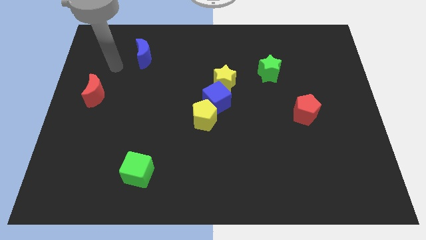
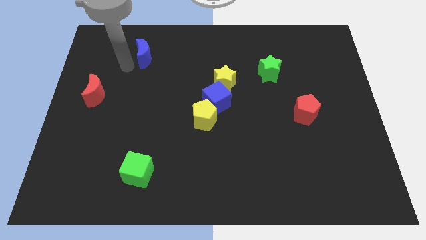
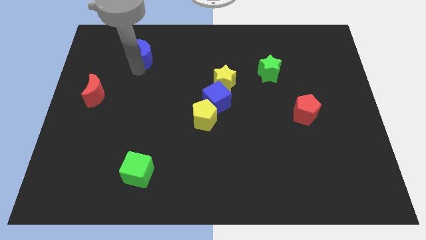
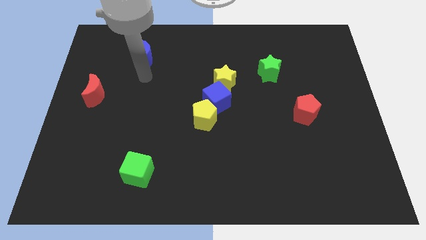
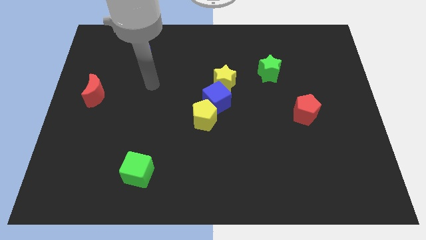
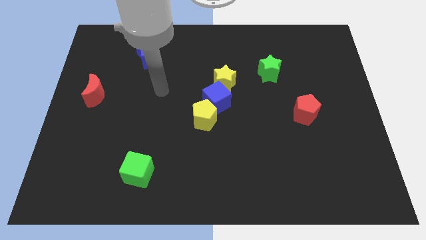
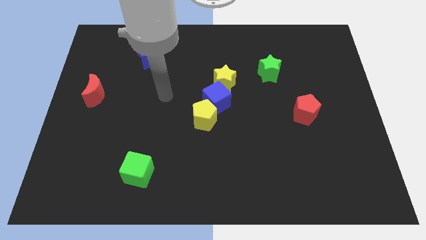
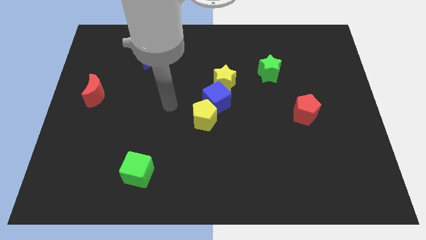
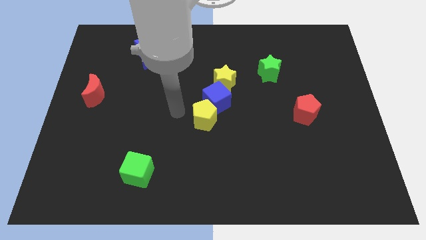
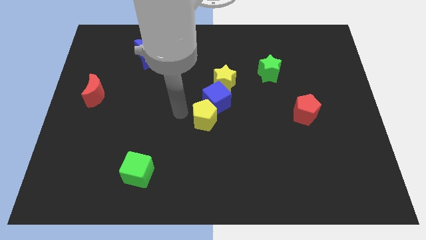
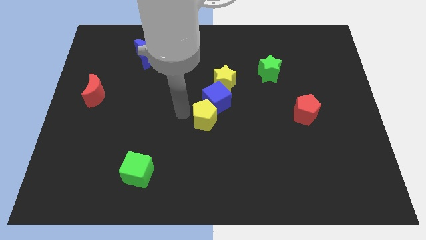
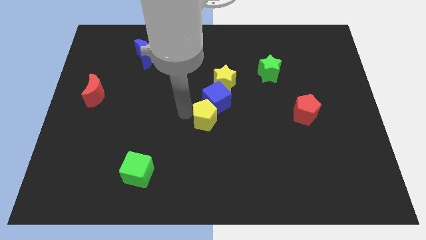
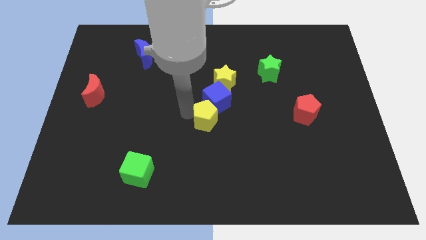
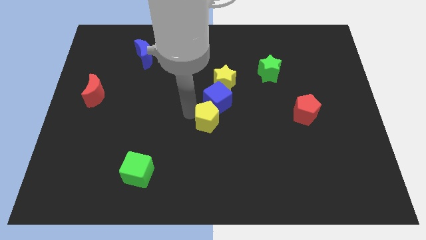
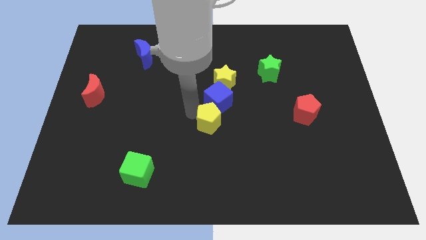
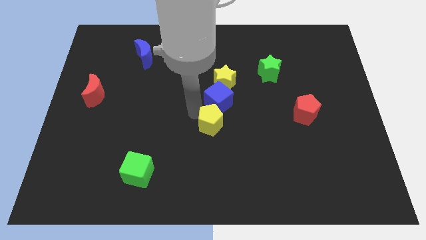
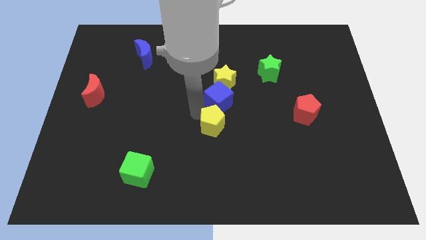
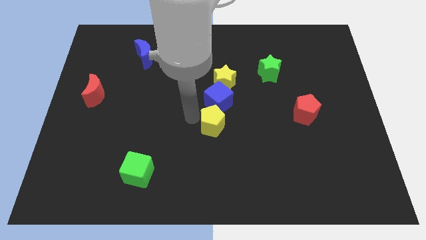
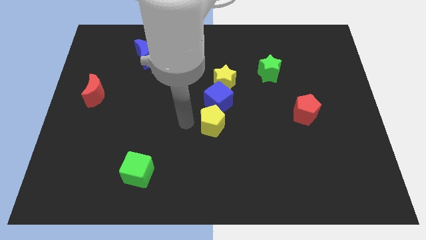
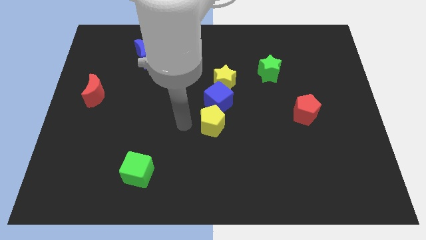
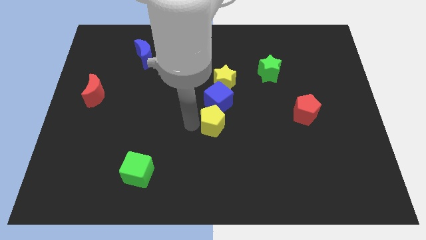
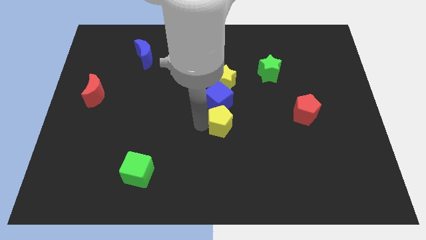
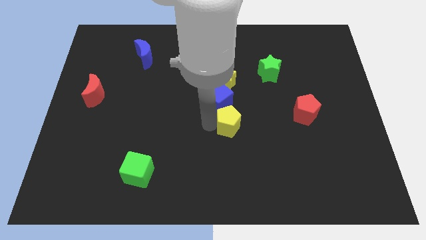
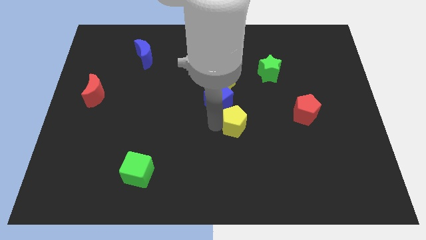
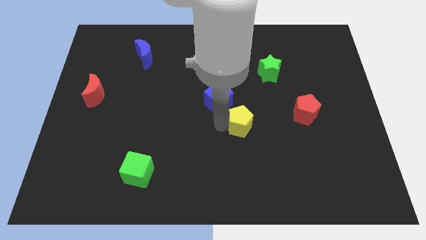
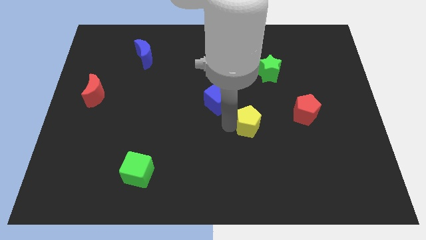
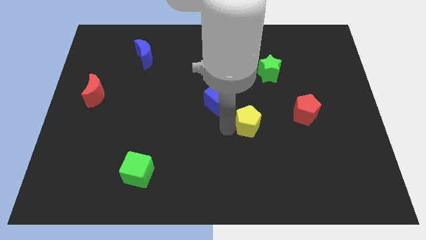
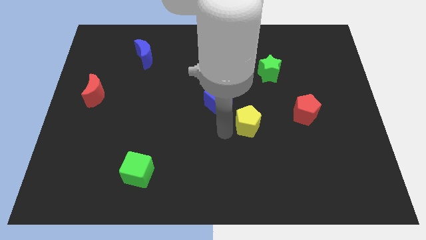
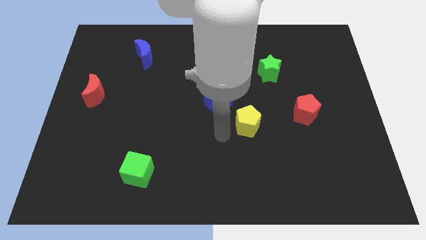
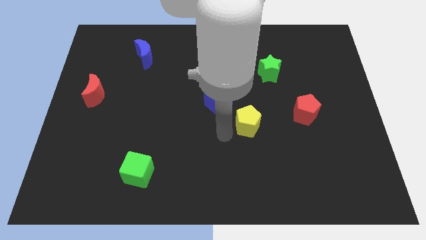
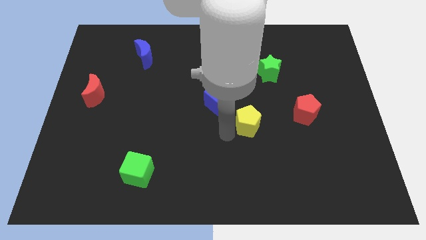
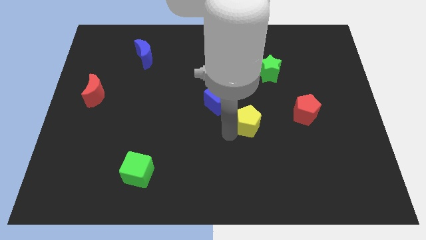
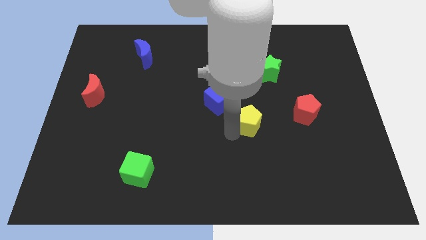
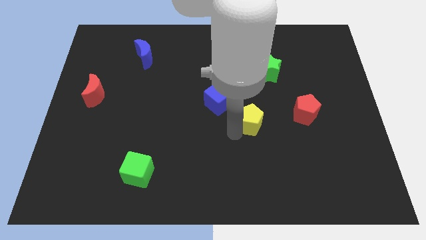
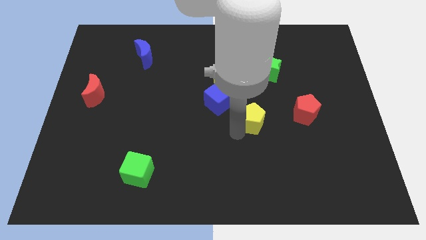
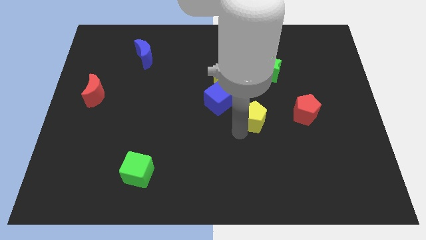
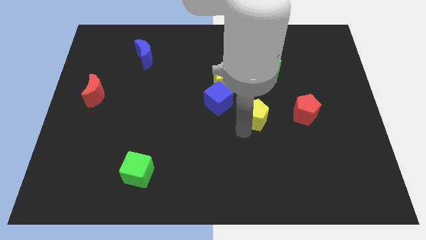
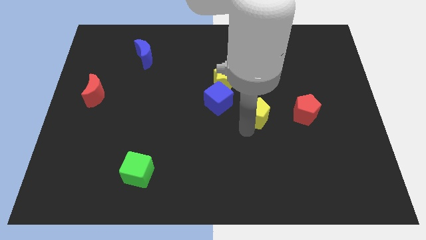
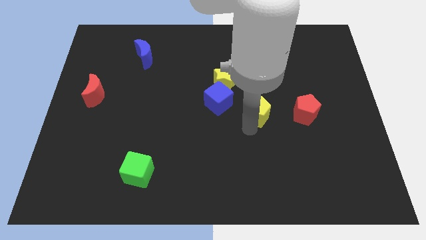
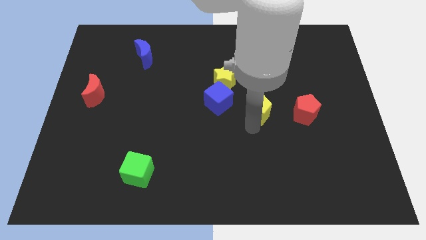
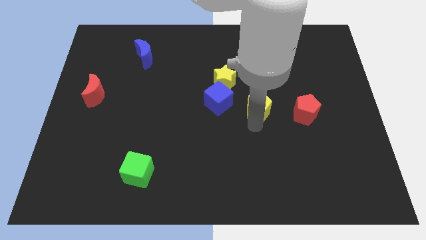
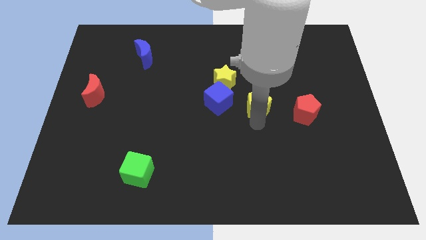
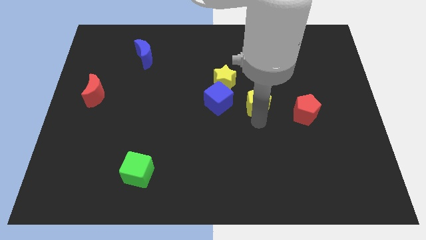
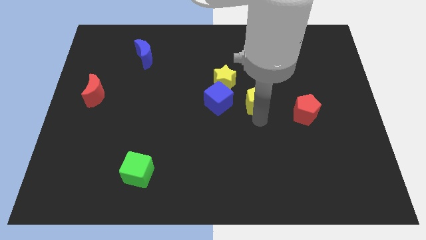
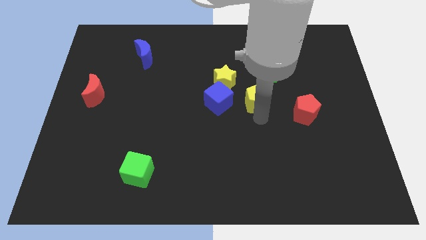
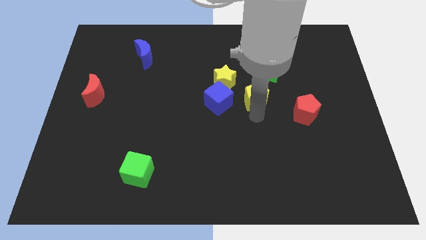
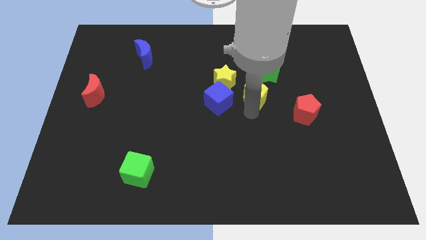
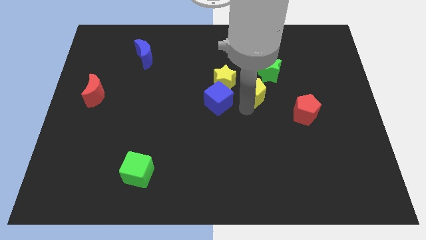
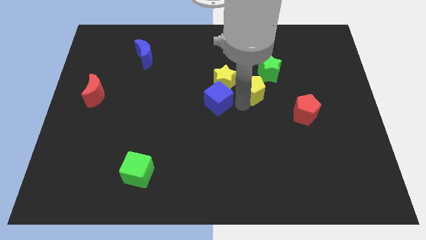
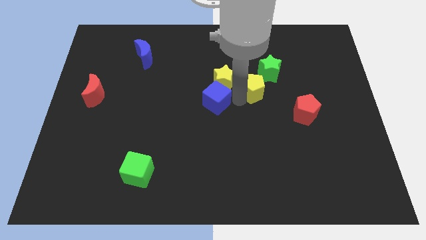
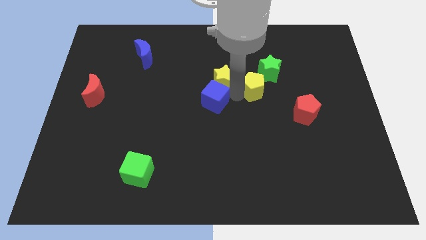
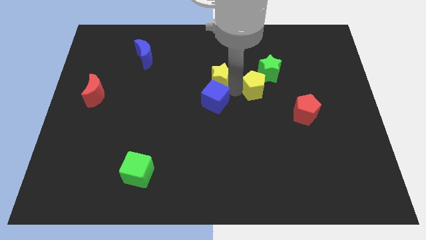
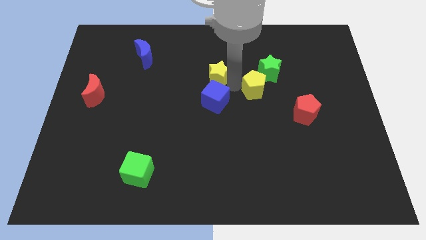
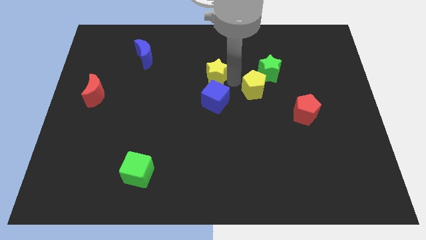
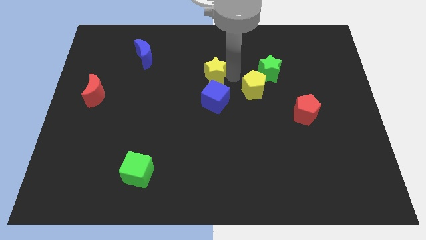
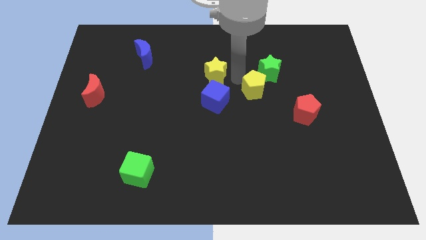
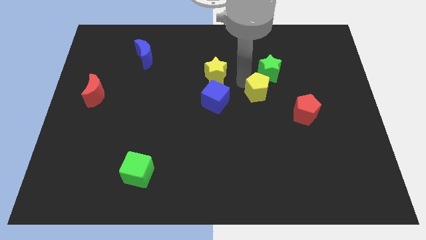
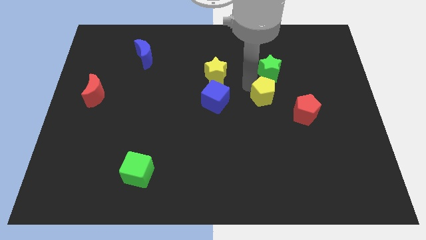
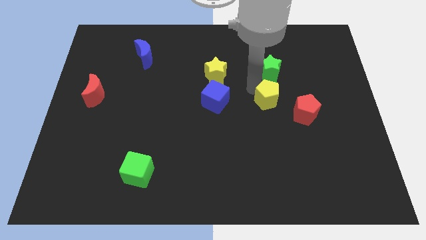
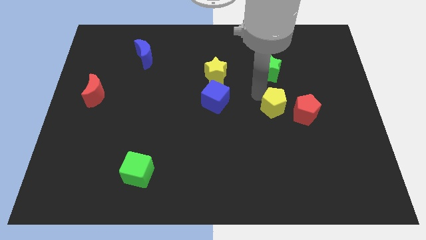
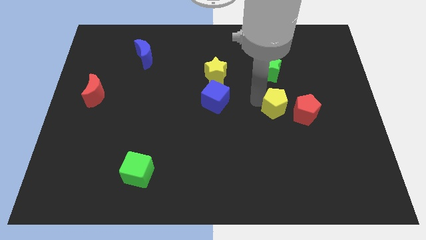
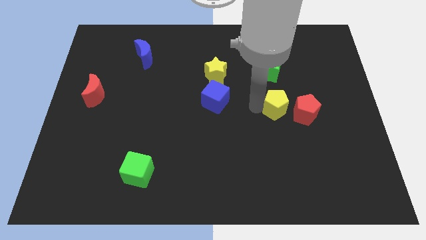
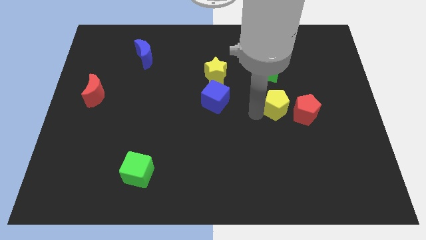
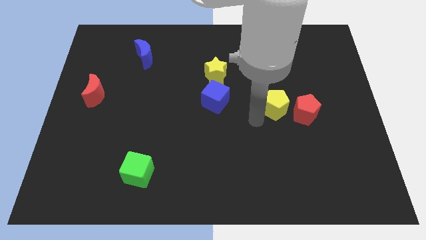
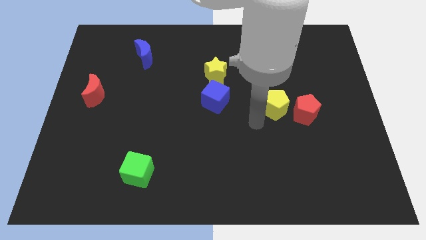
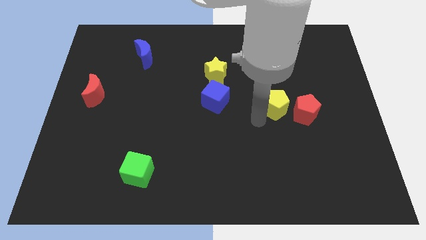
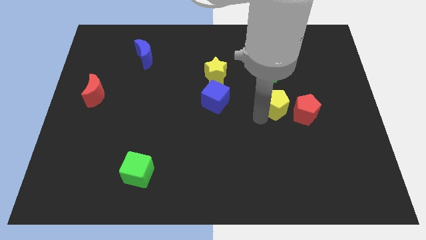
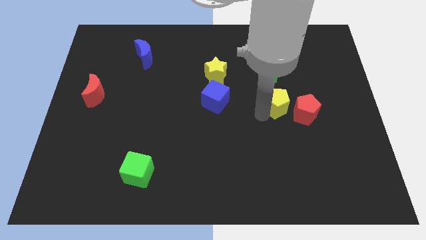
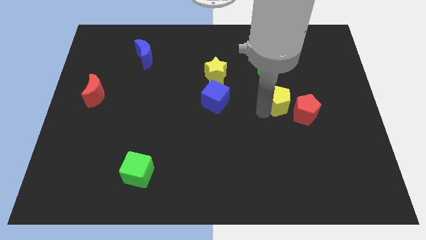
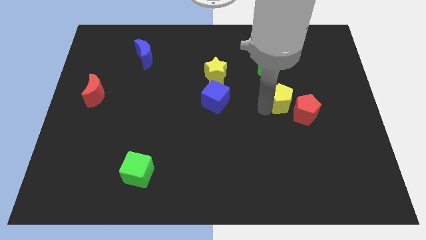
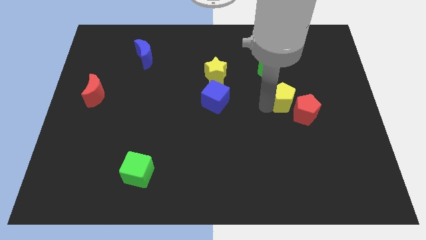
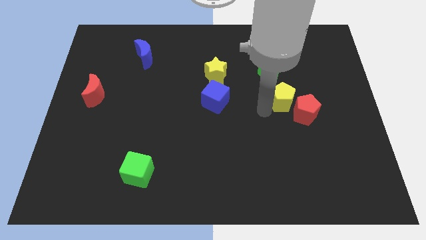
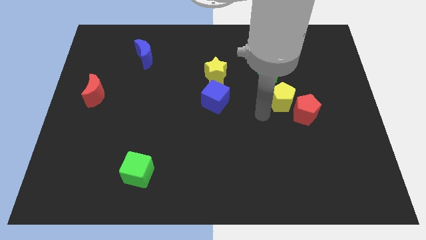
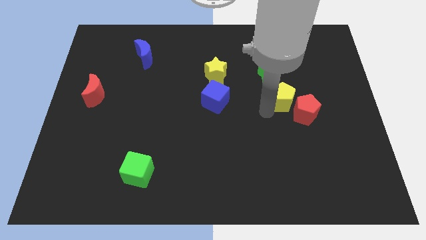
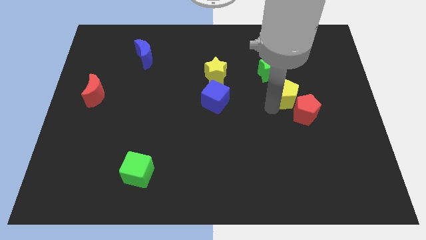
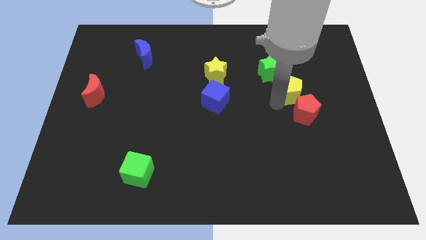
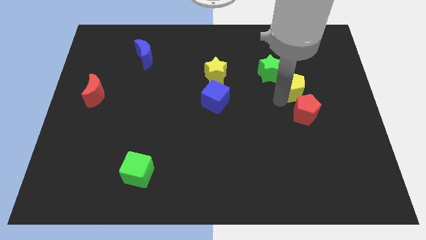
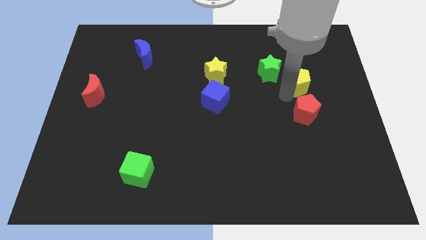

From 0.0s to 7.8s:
put the yellow pentagon to the right of the green star
